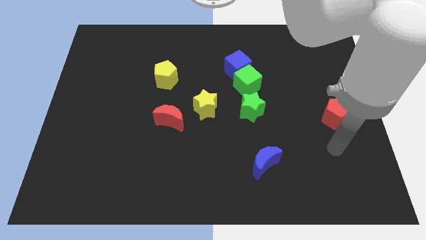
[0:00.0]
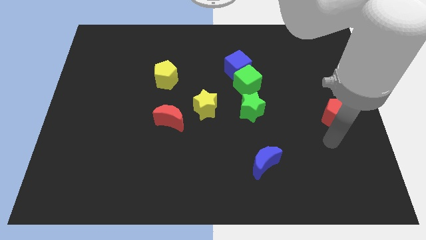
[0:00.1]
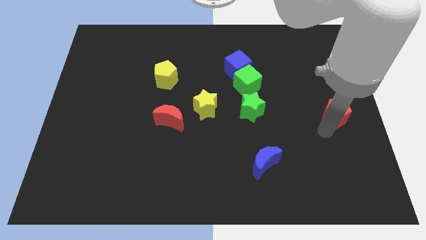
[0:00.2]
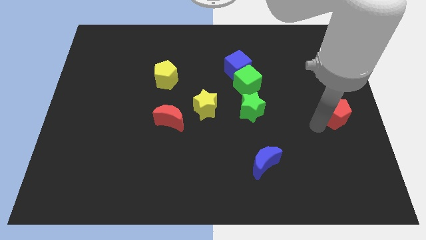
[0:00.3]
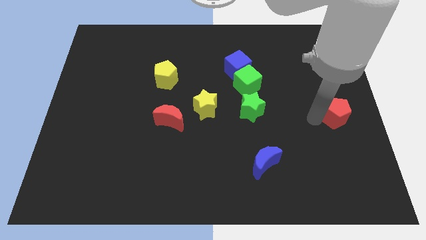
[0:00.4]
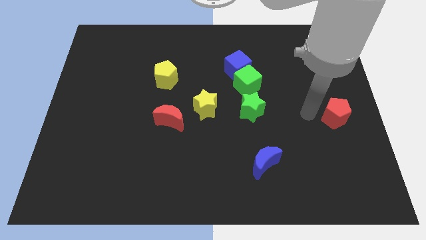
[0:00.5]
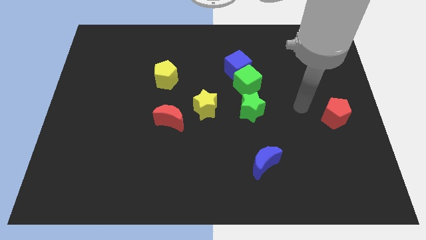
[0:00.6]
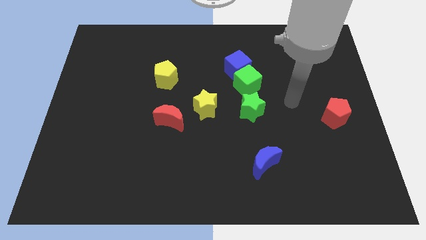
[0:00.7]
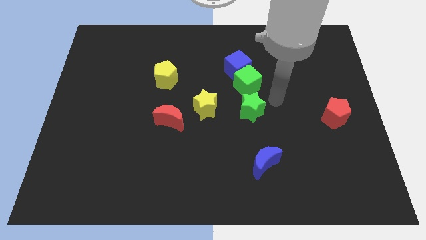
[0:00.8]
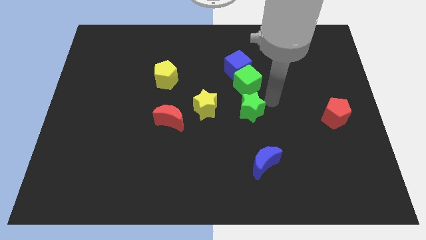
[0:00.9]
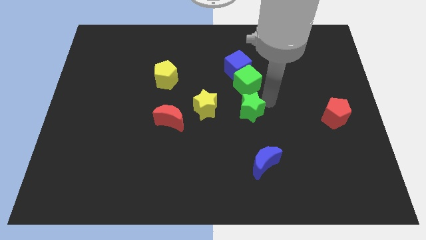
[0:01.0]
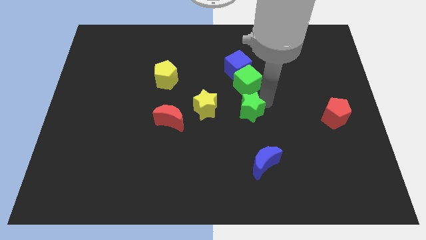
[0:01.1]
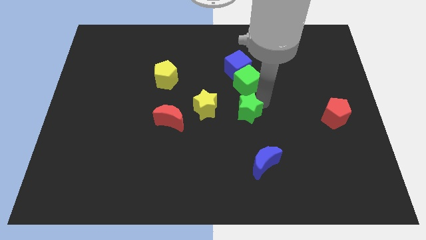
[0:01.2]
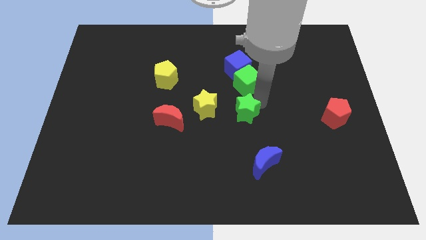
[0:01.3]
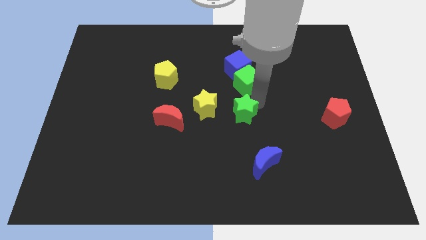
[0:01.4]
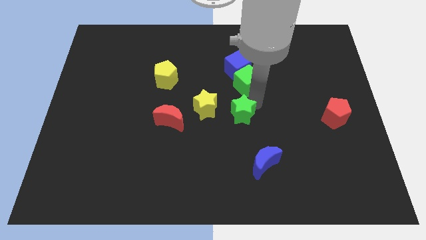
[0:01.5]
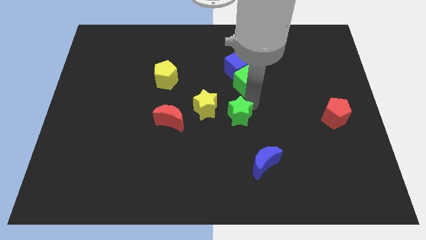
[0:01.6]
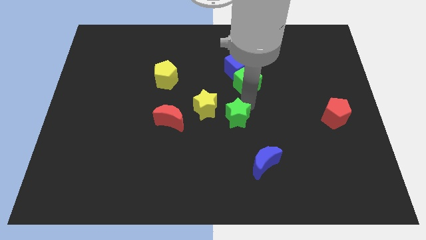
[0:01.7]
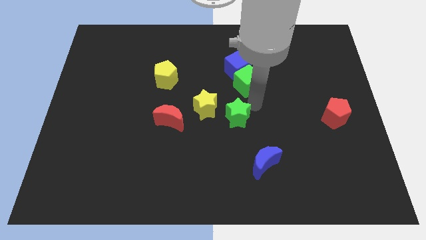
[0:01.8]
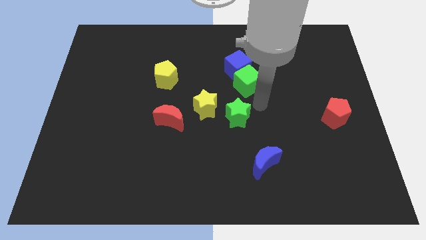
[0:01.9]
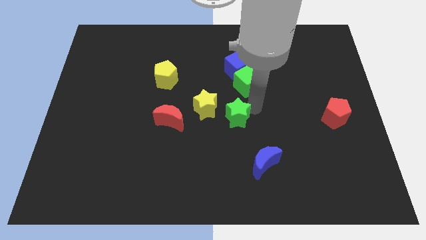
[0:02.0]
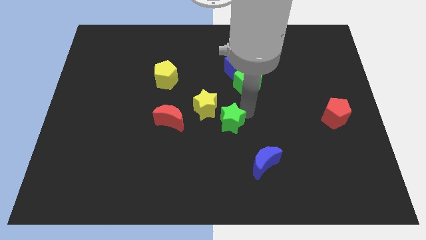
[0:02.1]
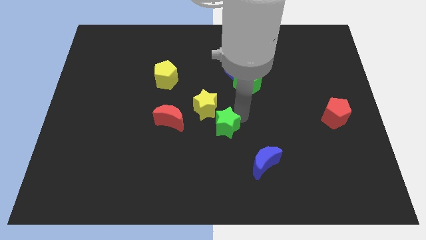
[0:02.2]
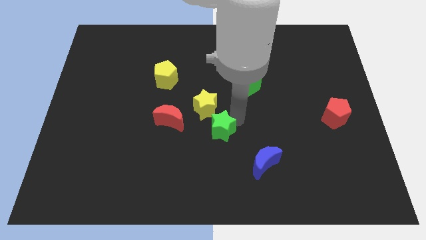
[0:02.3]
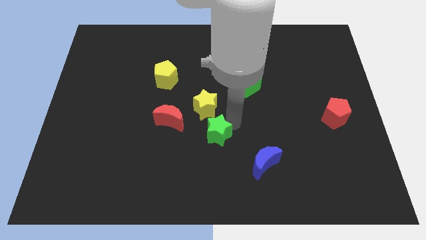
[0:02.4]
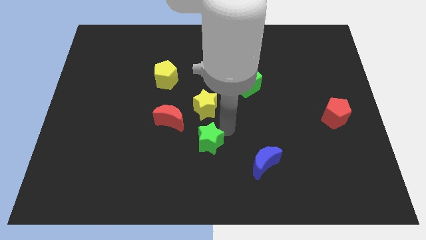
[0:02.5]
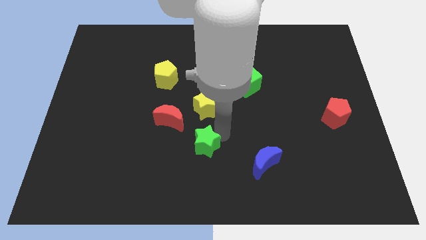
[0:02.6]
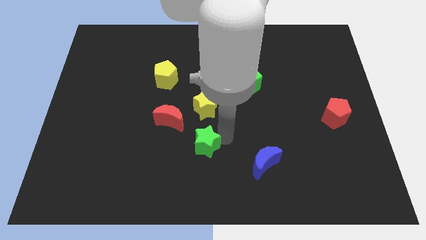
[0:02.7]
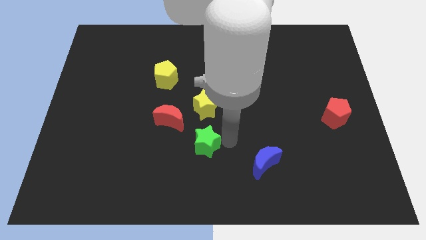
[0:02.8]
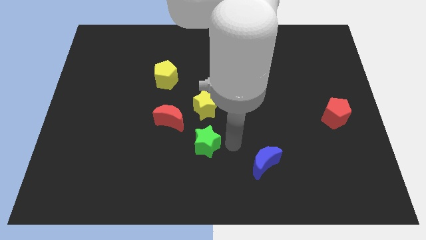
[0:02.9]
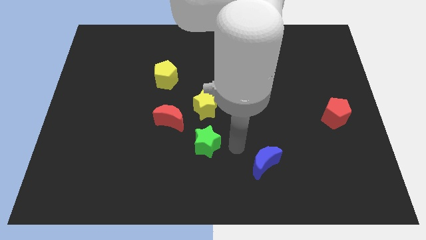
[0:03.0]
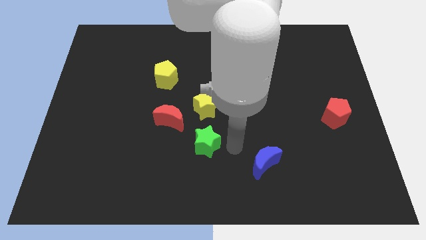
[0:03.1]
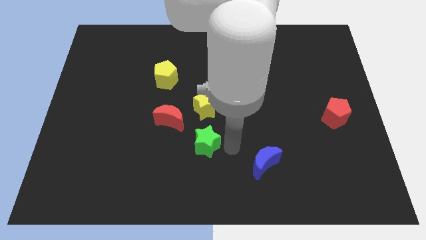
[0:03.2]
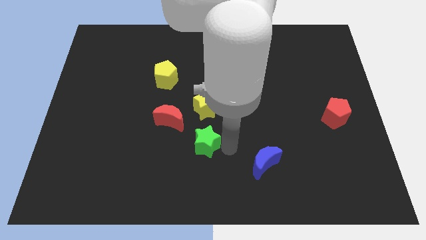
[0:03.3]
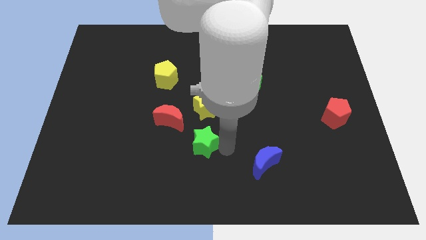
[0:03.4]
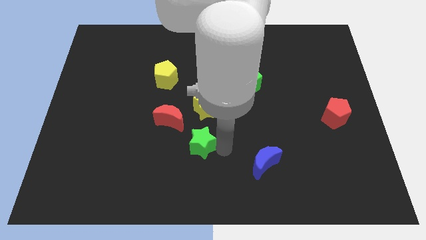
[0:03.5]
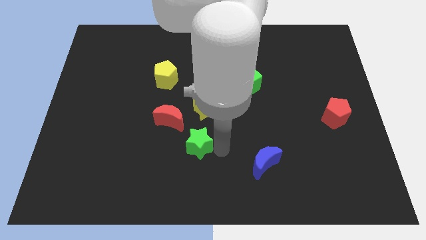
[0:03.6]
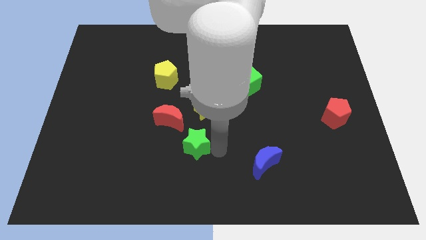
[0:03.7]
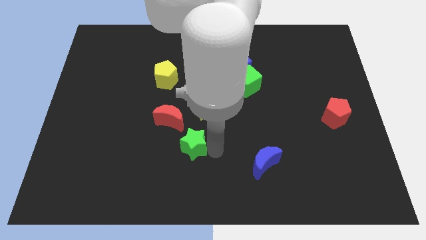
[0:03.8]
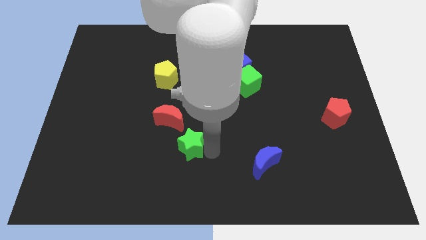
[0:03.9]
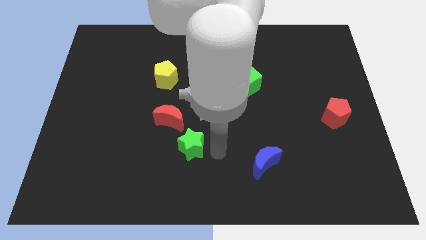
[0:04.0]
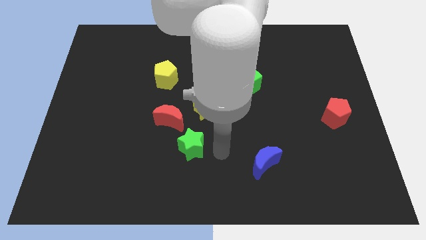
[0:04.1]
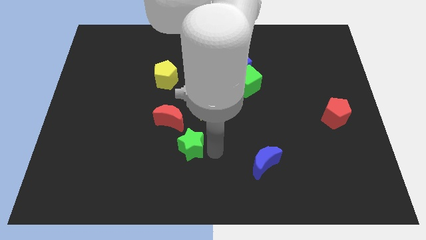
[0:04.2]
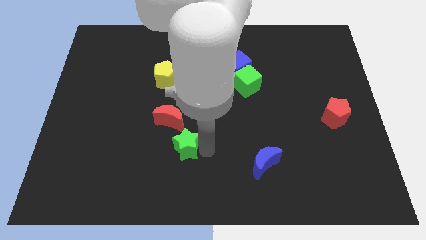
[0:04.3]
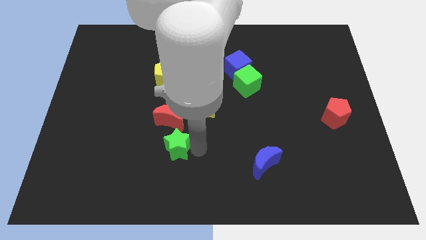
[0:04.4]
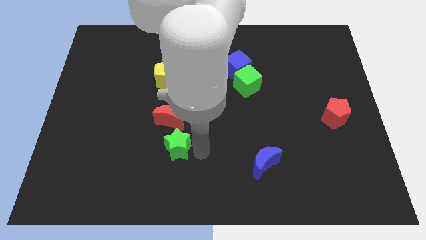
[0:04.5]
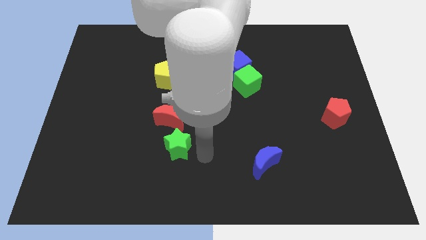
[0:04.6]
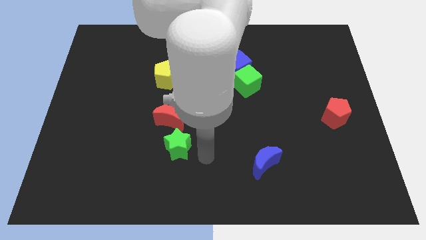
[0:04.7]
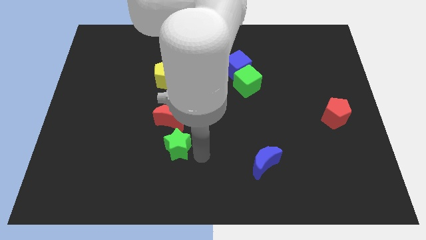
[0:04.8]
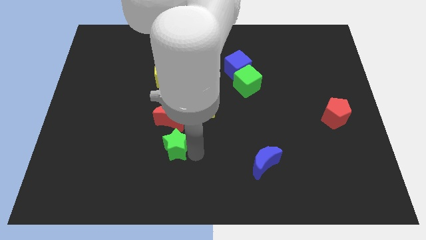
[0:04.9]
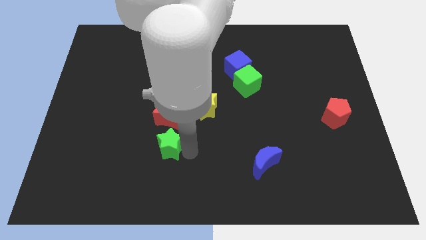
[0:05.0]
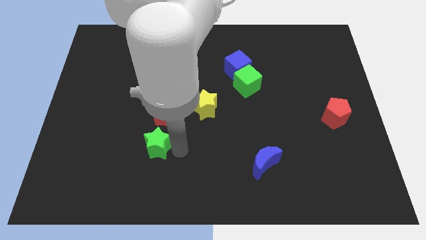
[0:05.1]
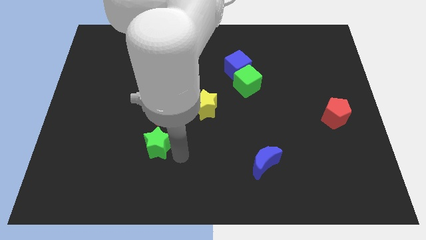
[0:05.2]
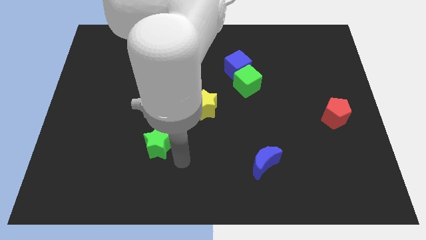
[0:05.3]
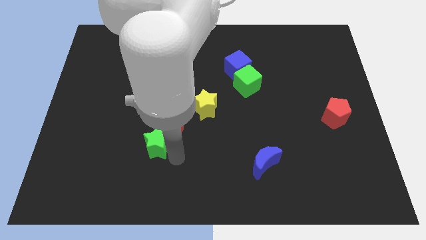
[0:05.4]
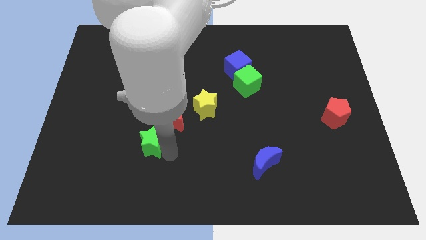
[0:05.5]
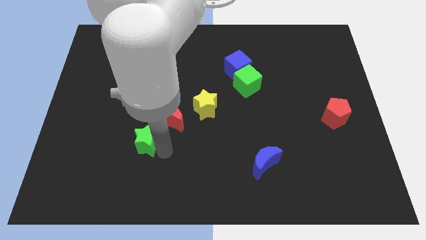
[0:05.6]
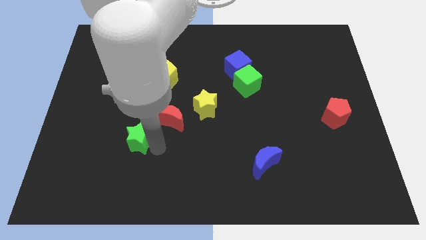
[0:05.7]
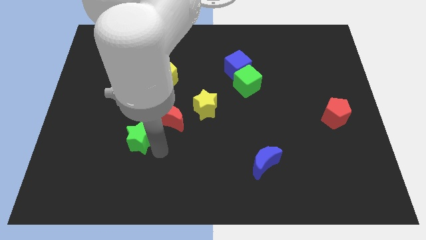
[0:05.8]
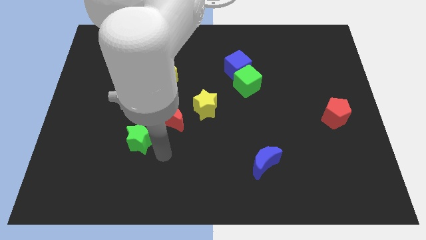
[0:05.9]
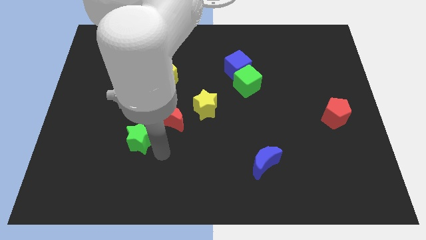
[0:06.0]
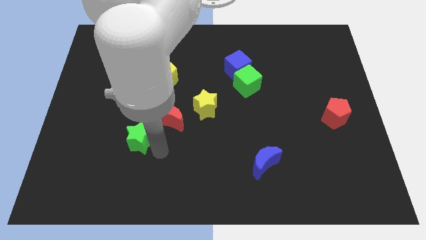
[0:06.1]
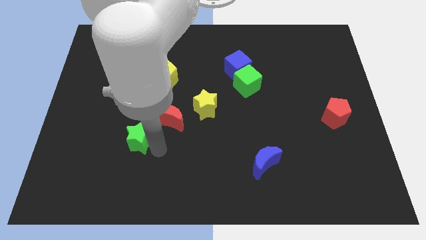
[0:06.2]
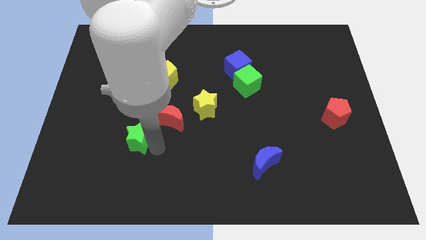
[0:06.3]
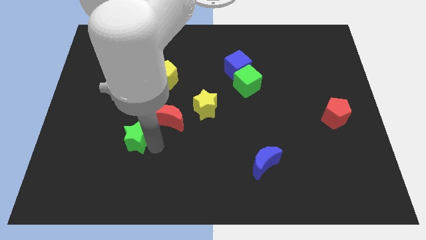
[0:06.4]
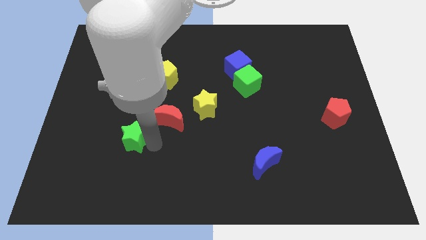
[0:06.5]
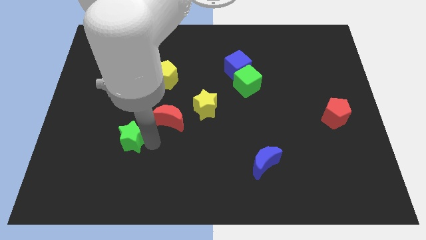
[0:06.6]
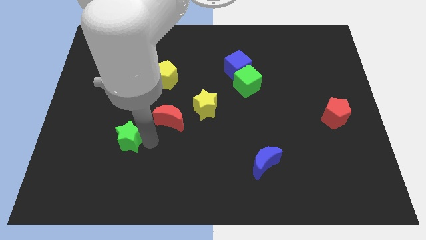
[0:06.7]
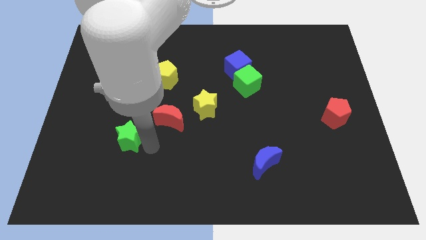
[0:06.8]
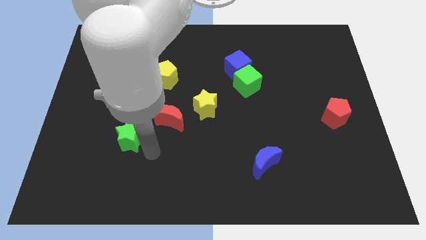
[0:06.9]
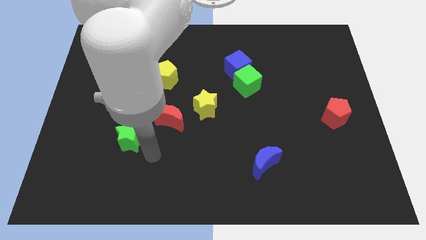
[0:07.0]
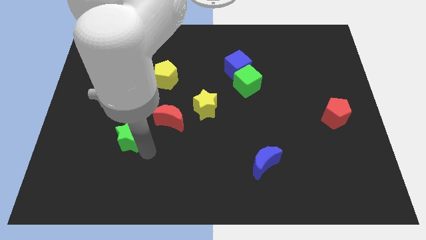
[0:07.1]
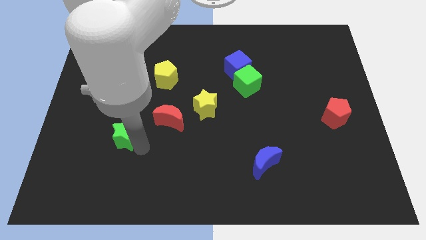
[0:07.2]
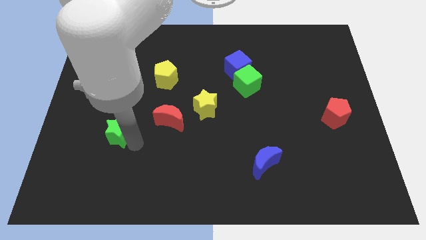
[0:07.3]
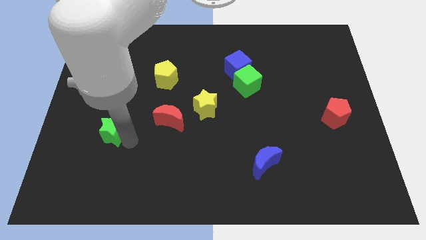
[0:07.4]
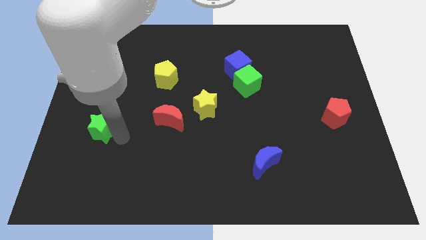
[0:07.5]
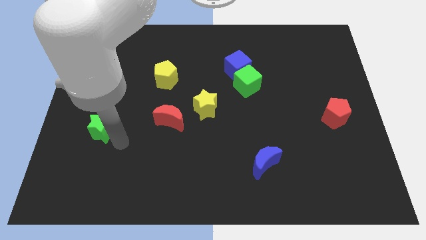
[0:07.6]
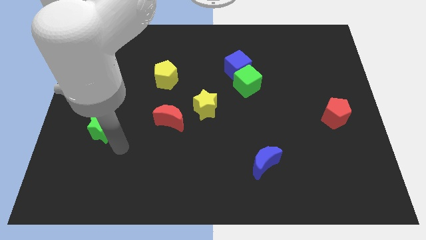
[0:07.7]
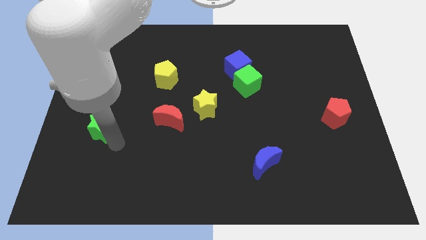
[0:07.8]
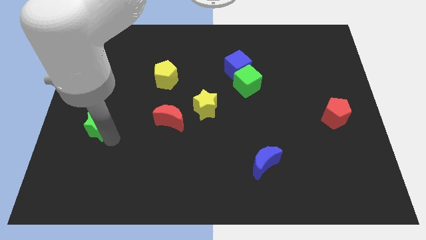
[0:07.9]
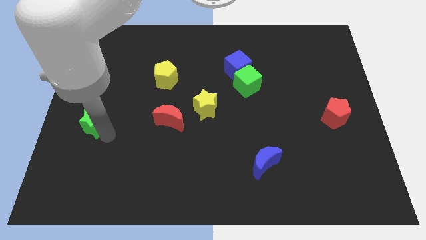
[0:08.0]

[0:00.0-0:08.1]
push the green star to the left side of the board
